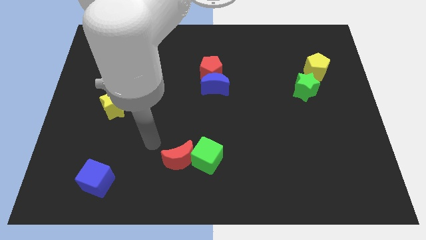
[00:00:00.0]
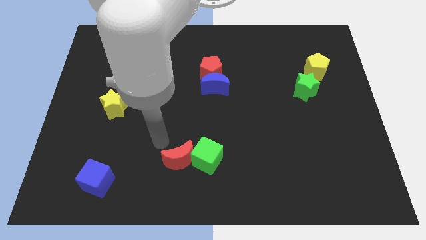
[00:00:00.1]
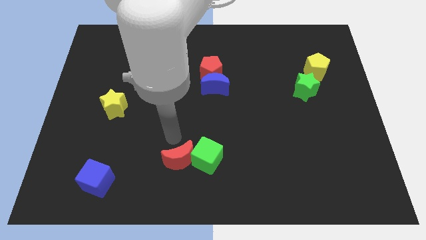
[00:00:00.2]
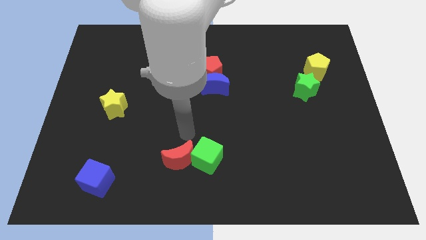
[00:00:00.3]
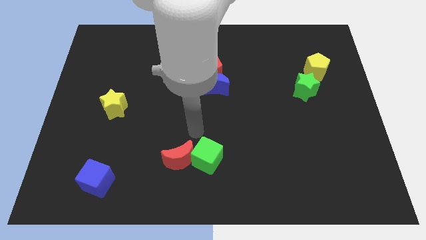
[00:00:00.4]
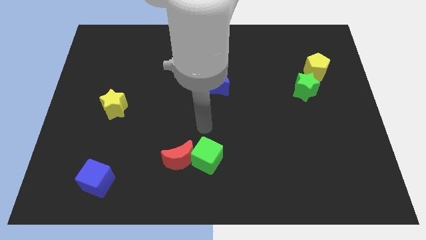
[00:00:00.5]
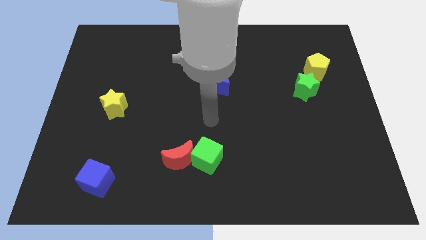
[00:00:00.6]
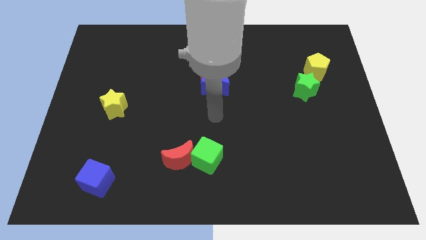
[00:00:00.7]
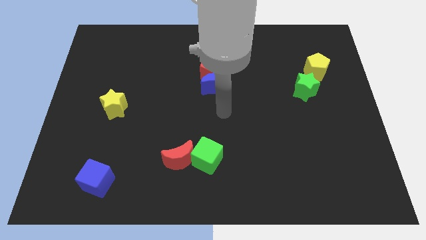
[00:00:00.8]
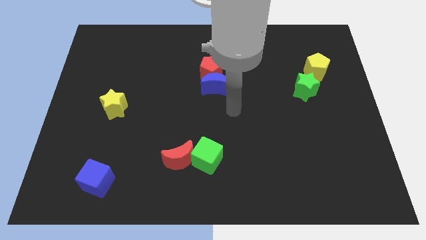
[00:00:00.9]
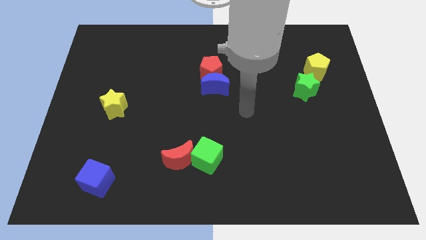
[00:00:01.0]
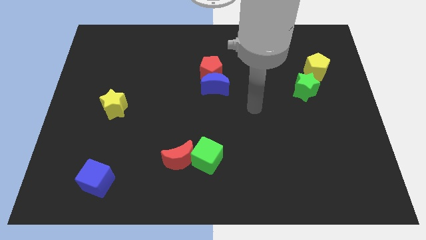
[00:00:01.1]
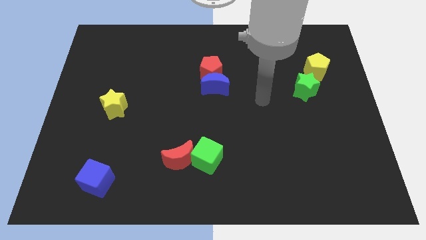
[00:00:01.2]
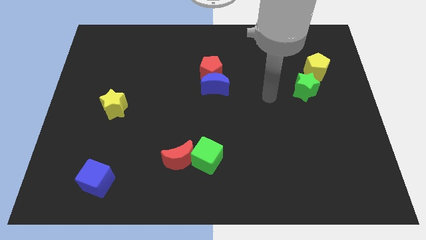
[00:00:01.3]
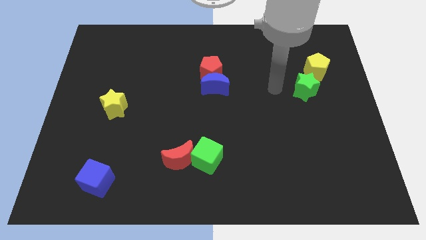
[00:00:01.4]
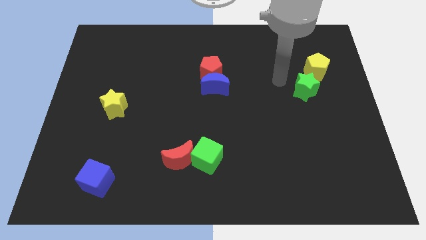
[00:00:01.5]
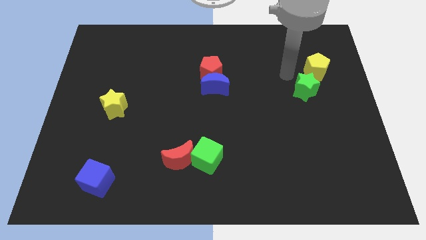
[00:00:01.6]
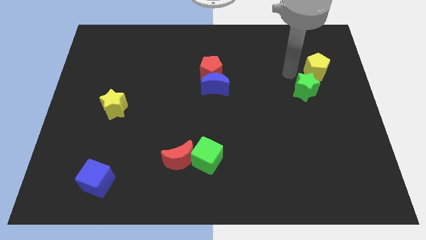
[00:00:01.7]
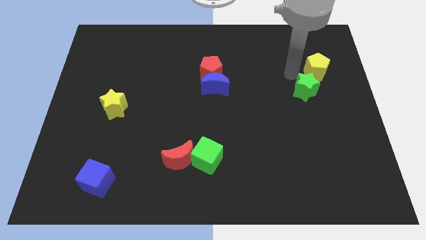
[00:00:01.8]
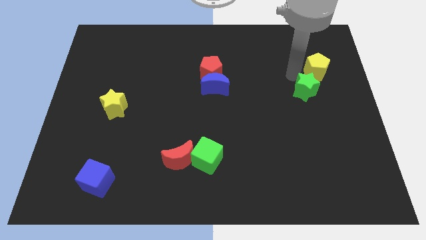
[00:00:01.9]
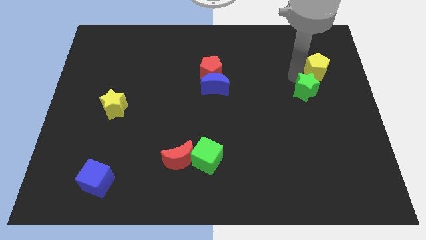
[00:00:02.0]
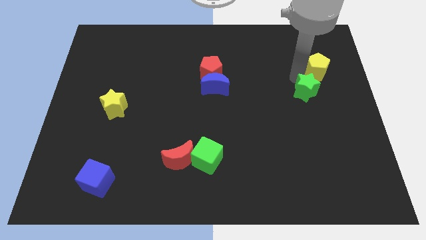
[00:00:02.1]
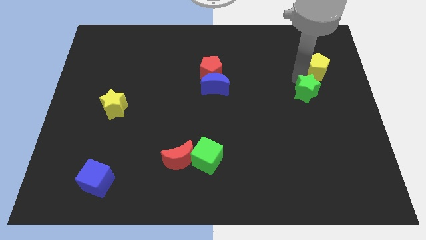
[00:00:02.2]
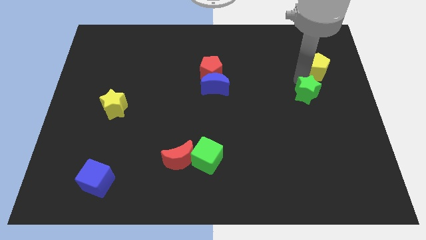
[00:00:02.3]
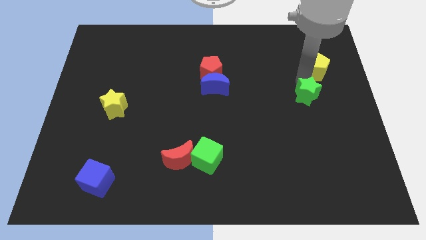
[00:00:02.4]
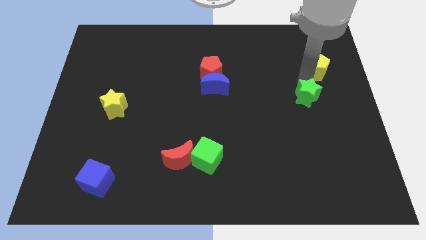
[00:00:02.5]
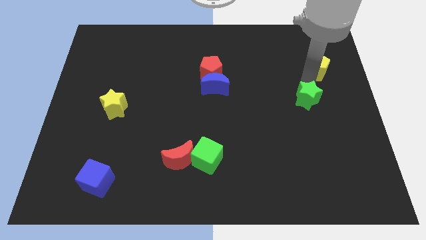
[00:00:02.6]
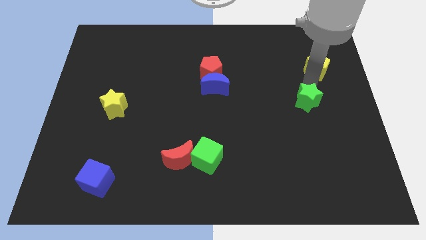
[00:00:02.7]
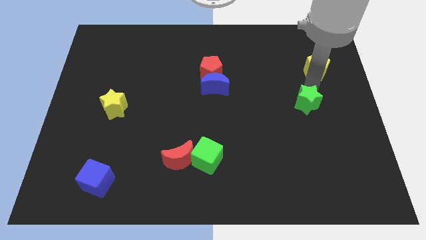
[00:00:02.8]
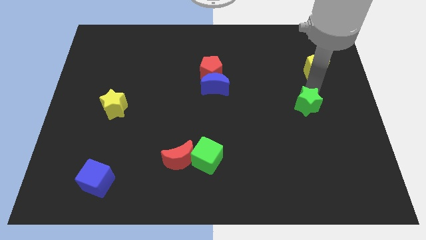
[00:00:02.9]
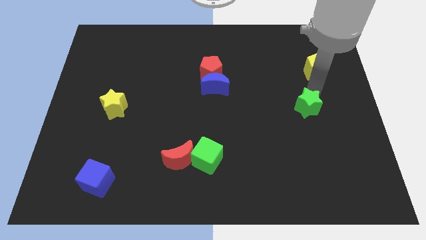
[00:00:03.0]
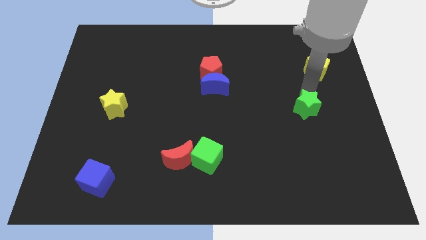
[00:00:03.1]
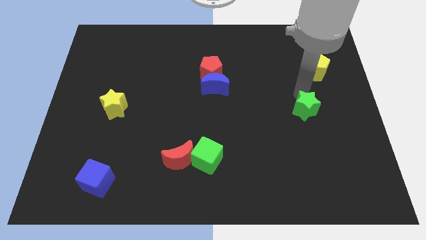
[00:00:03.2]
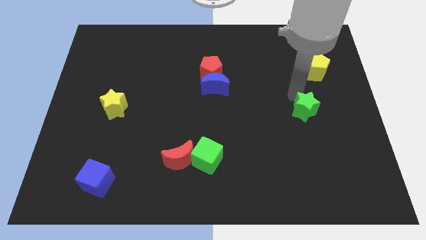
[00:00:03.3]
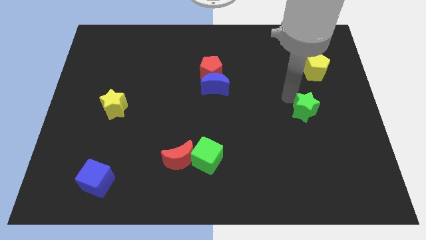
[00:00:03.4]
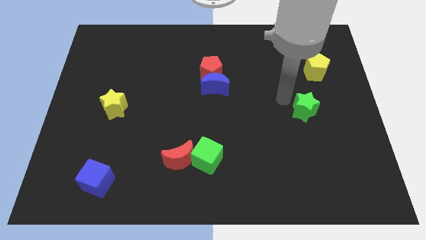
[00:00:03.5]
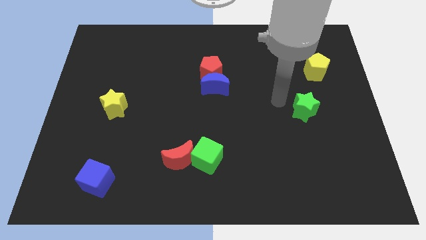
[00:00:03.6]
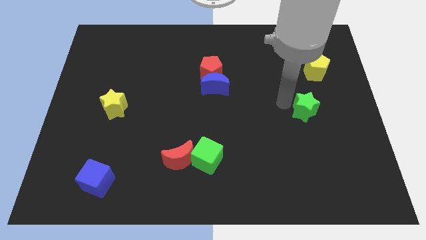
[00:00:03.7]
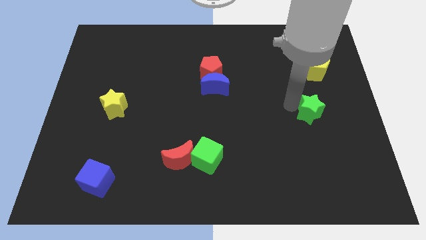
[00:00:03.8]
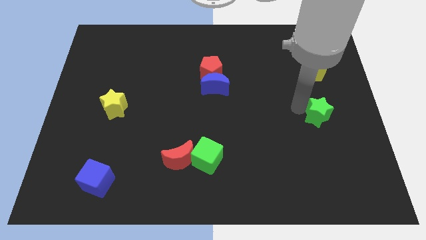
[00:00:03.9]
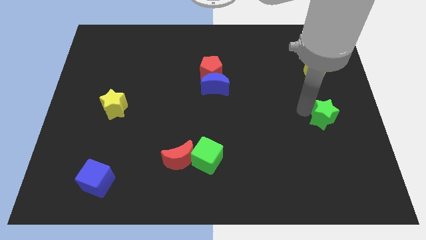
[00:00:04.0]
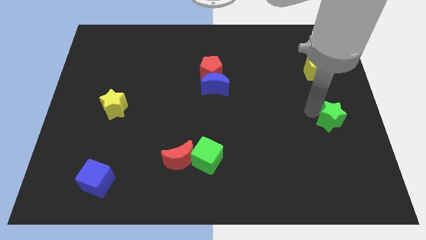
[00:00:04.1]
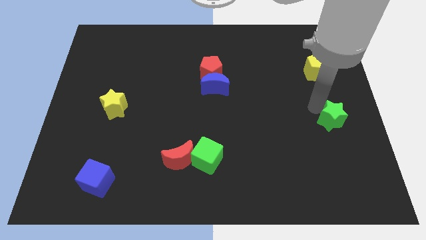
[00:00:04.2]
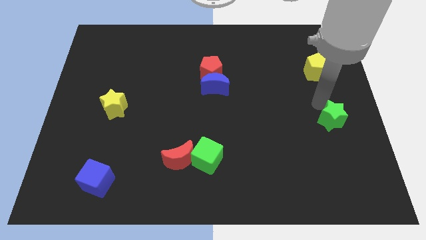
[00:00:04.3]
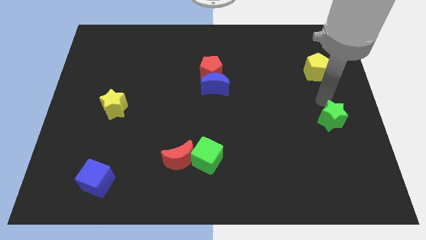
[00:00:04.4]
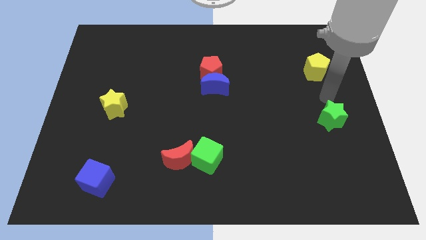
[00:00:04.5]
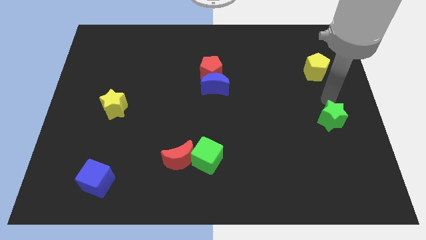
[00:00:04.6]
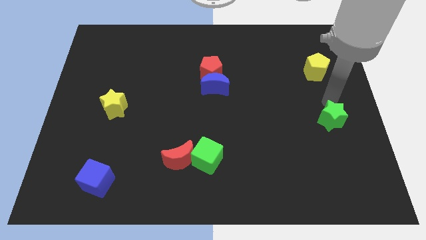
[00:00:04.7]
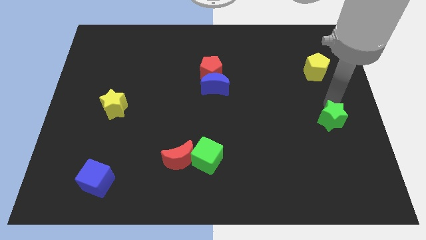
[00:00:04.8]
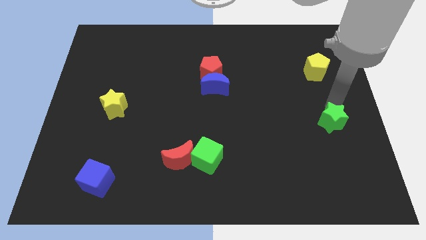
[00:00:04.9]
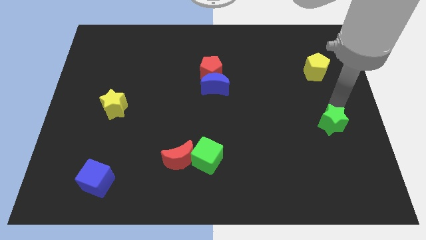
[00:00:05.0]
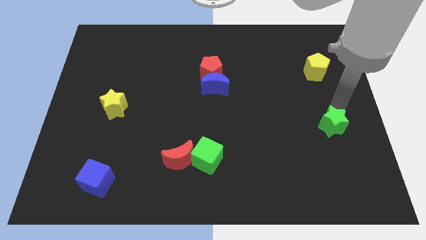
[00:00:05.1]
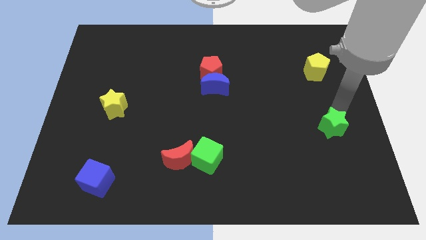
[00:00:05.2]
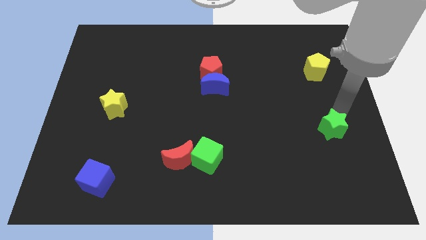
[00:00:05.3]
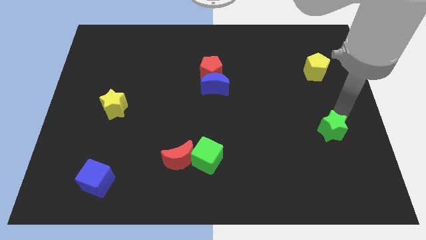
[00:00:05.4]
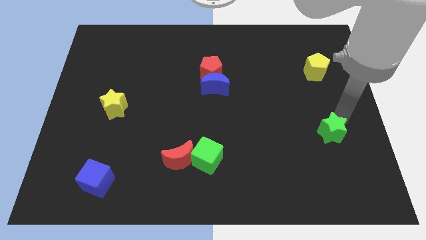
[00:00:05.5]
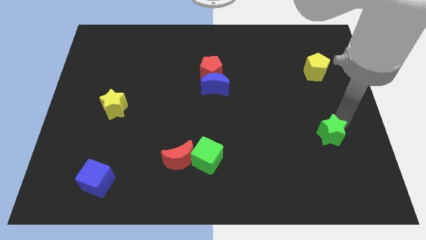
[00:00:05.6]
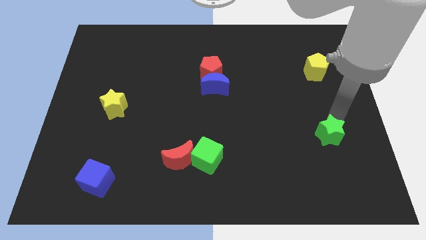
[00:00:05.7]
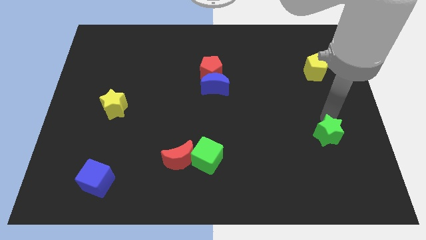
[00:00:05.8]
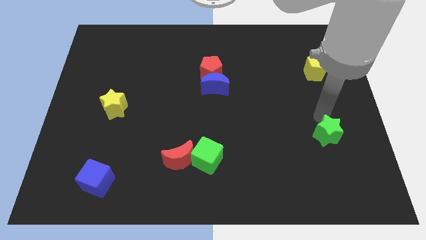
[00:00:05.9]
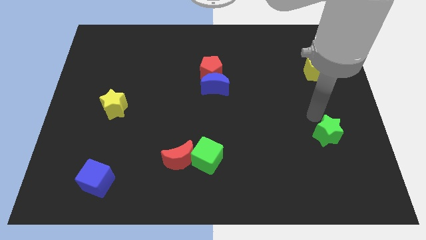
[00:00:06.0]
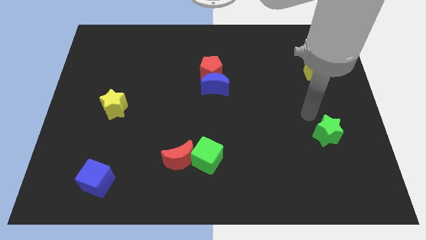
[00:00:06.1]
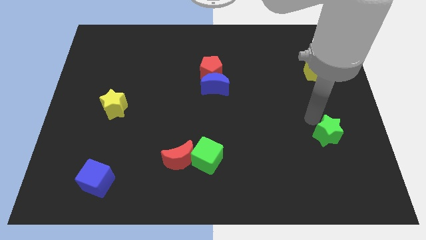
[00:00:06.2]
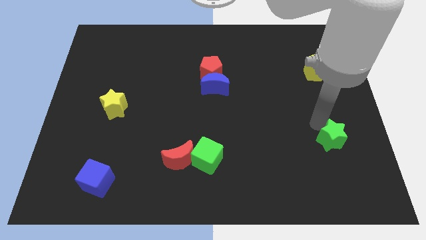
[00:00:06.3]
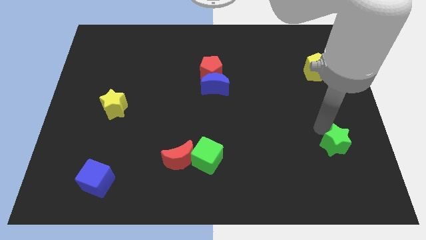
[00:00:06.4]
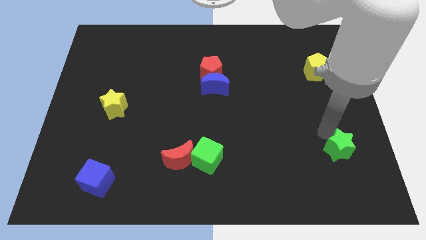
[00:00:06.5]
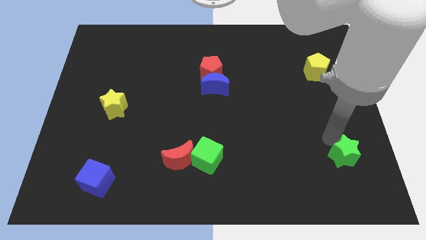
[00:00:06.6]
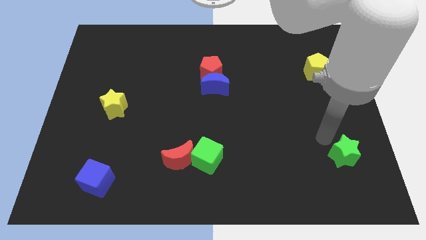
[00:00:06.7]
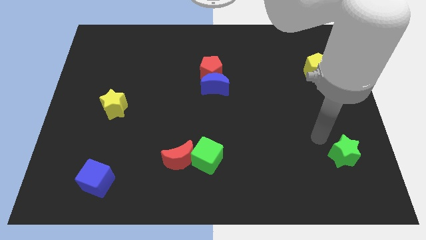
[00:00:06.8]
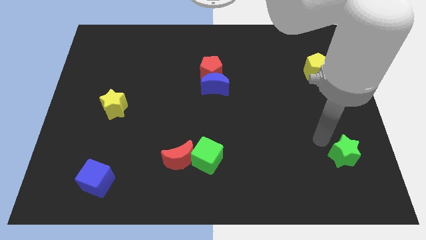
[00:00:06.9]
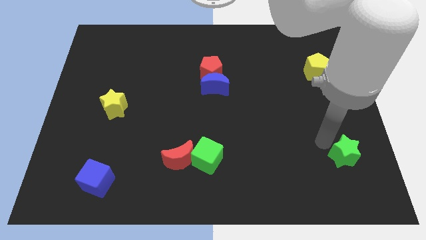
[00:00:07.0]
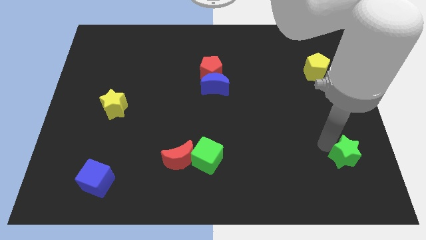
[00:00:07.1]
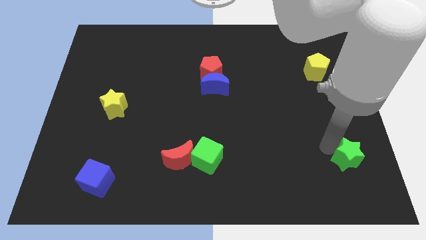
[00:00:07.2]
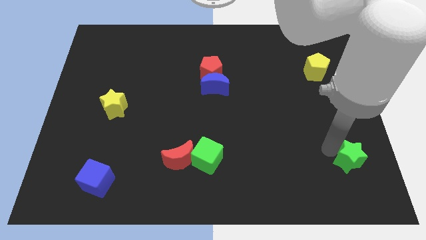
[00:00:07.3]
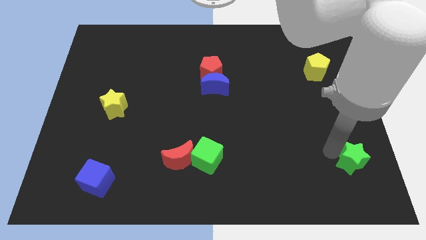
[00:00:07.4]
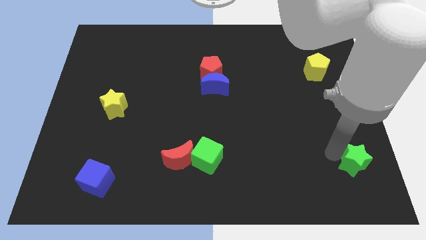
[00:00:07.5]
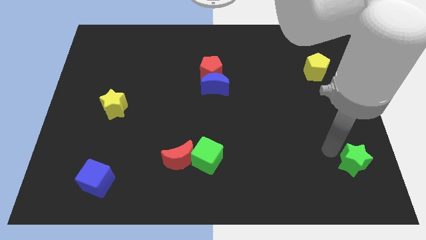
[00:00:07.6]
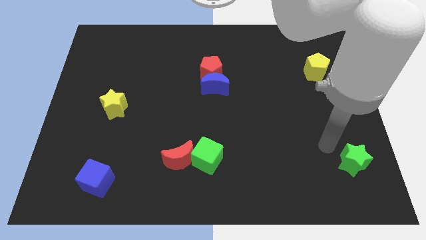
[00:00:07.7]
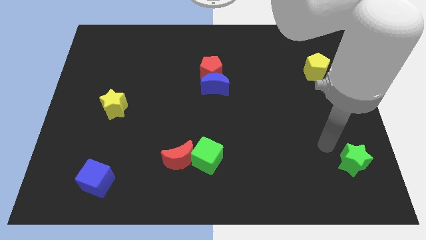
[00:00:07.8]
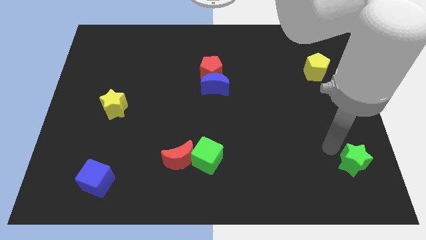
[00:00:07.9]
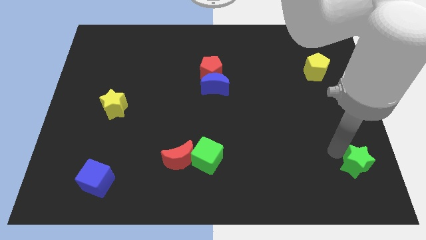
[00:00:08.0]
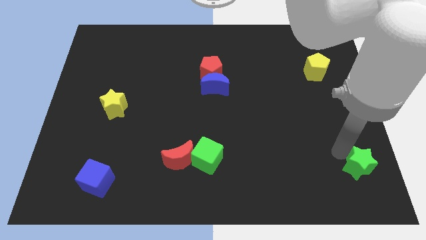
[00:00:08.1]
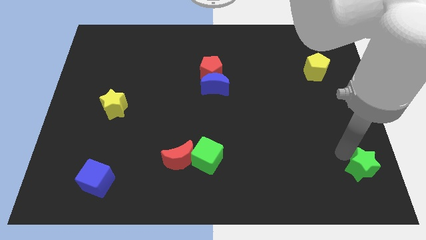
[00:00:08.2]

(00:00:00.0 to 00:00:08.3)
slide the green star to the bottom right
